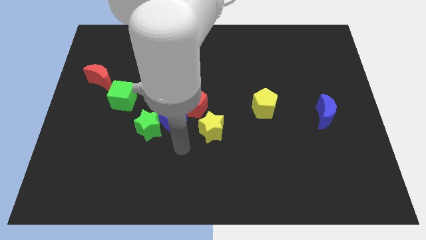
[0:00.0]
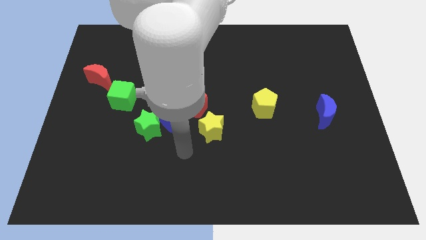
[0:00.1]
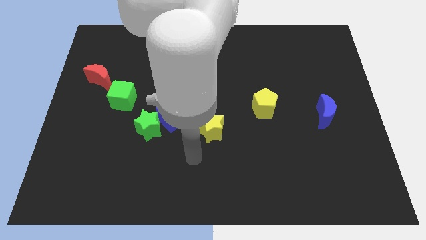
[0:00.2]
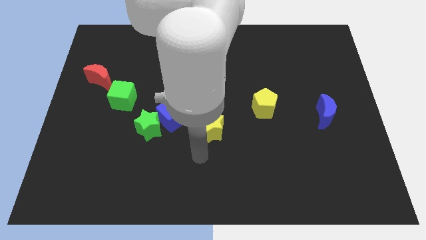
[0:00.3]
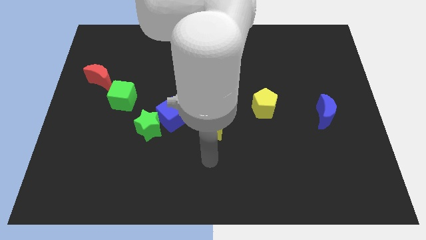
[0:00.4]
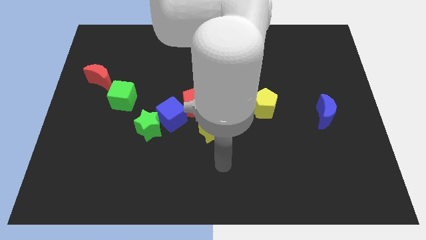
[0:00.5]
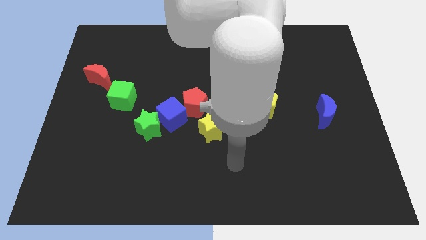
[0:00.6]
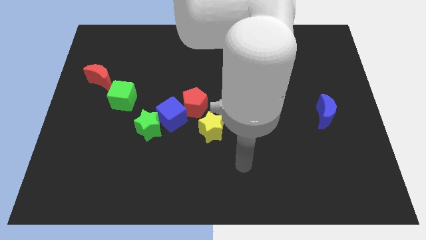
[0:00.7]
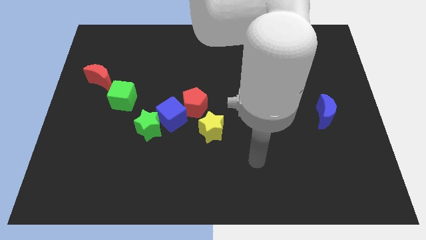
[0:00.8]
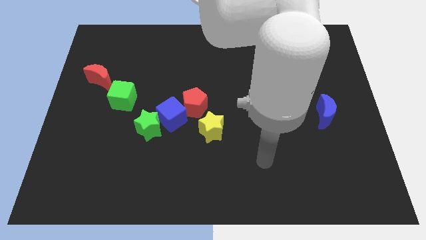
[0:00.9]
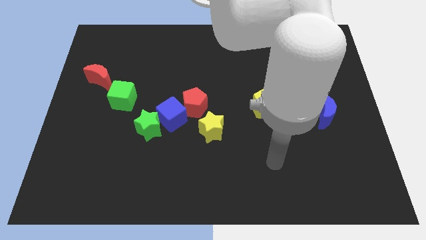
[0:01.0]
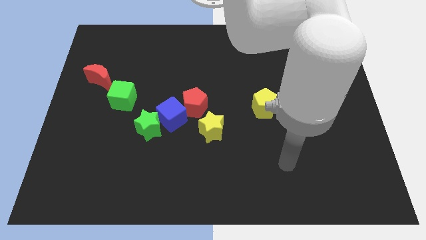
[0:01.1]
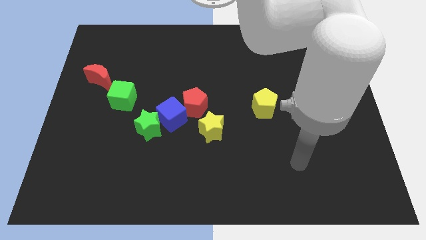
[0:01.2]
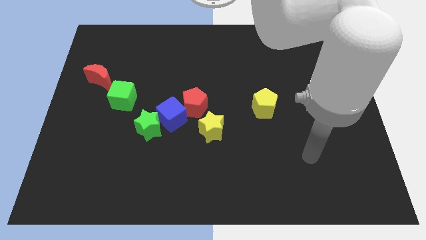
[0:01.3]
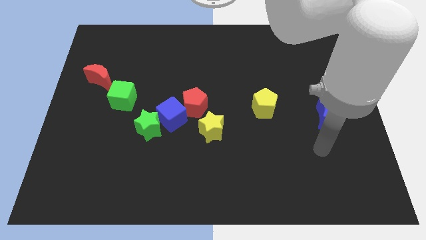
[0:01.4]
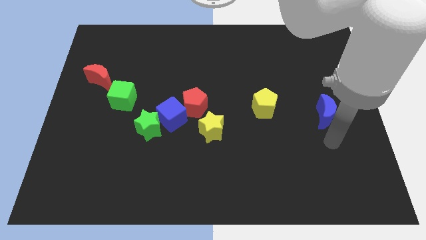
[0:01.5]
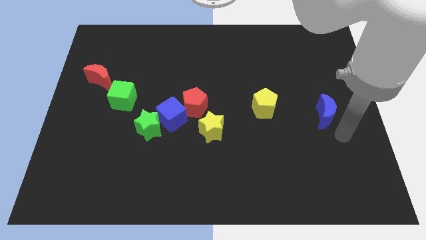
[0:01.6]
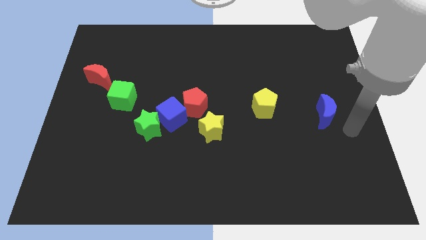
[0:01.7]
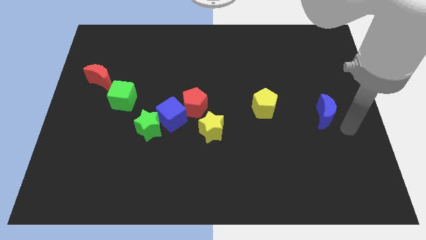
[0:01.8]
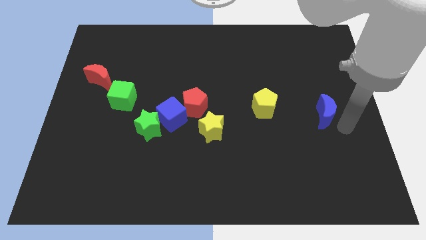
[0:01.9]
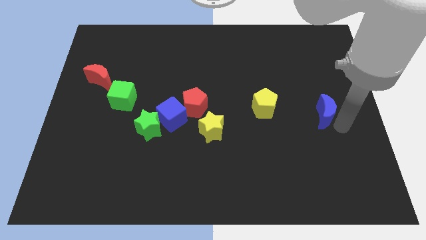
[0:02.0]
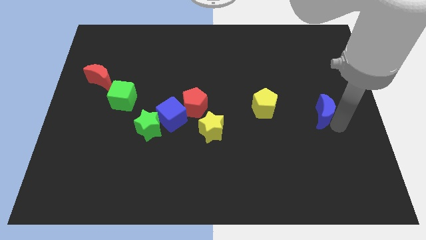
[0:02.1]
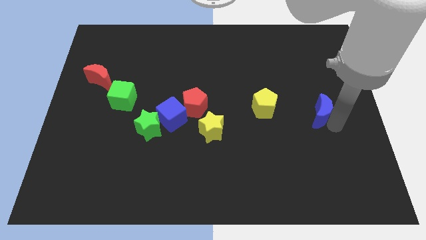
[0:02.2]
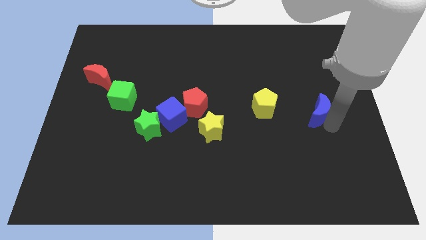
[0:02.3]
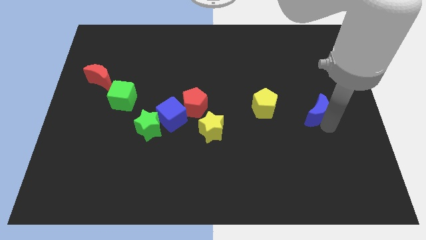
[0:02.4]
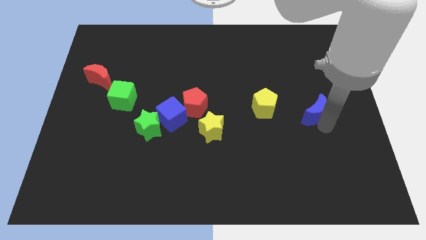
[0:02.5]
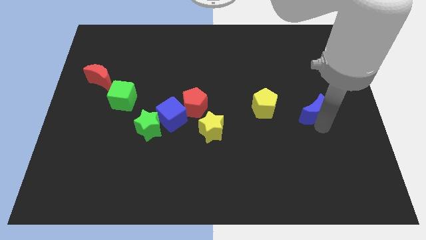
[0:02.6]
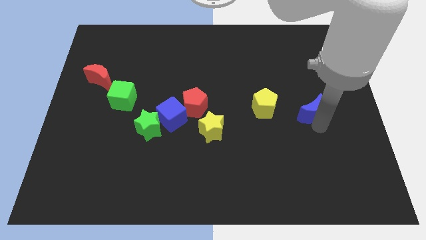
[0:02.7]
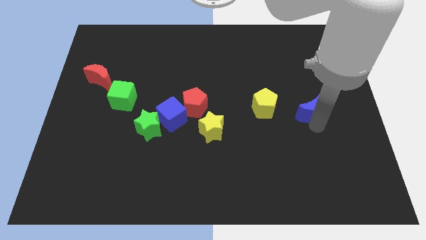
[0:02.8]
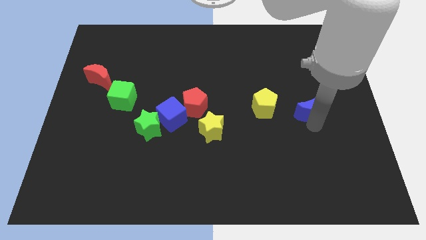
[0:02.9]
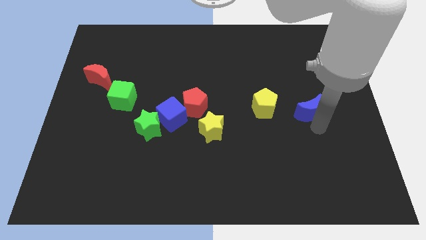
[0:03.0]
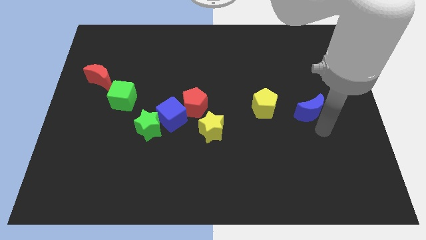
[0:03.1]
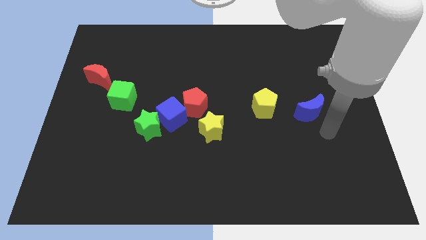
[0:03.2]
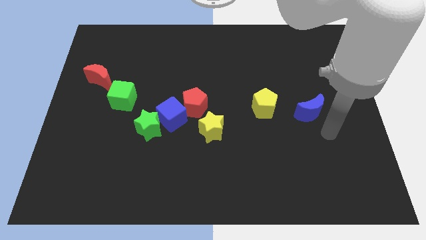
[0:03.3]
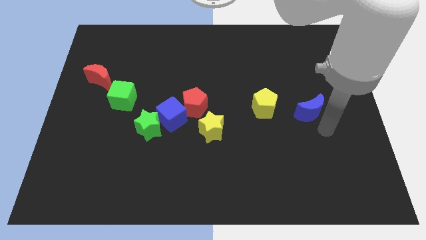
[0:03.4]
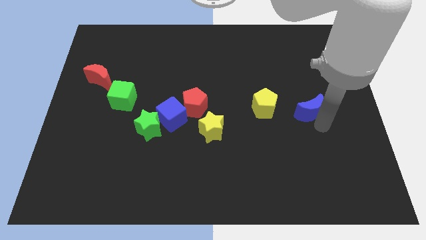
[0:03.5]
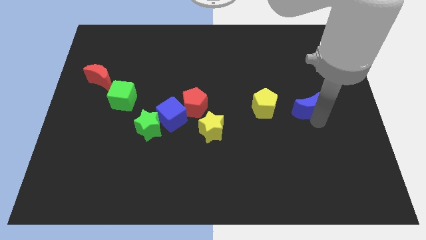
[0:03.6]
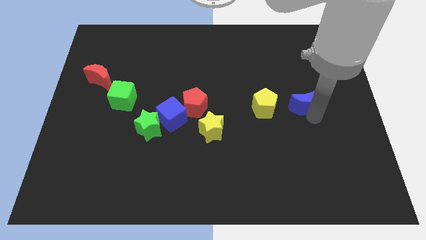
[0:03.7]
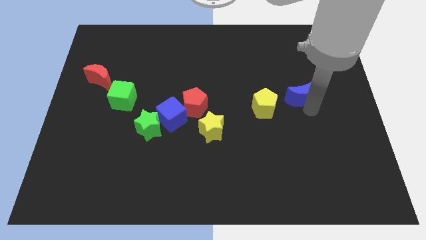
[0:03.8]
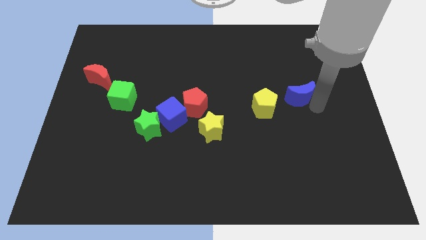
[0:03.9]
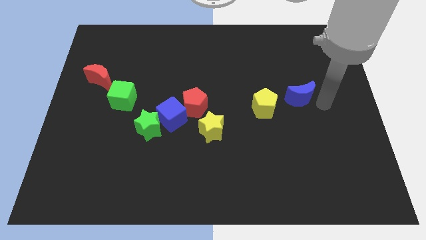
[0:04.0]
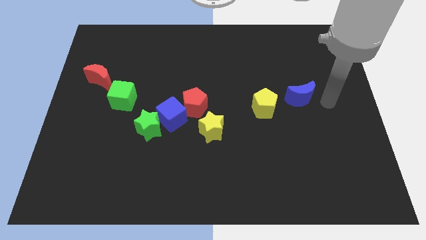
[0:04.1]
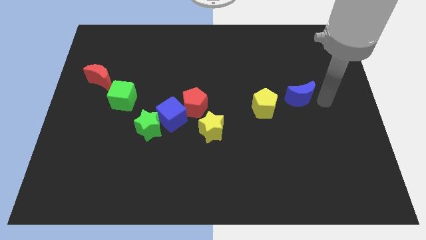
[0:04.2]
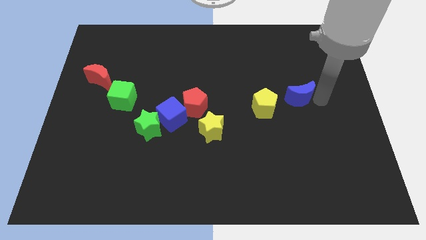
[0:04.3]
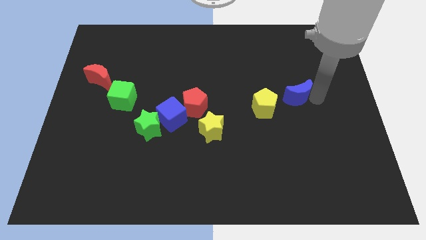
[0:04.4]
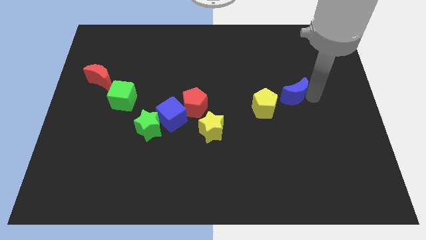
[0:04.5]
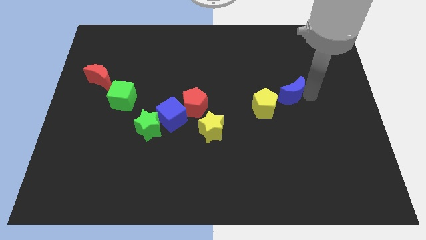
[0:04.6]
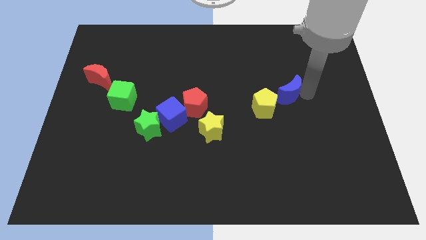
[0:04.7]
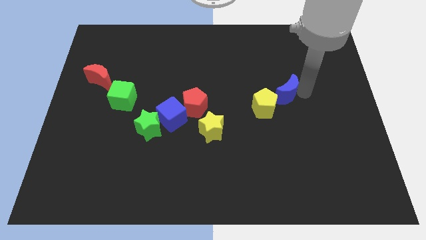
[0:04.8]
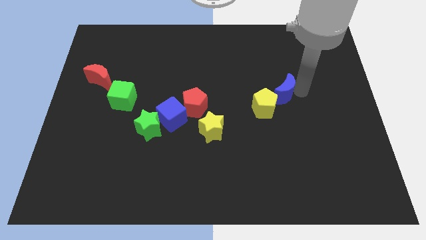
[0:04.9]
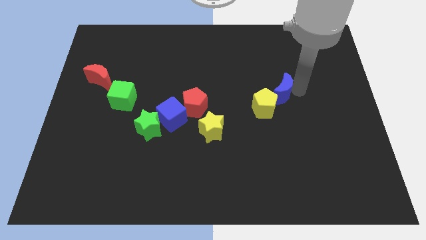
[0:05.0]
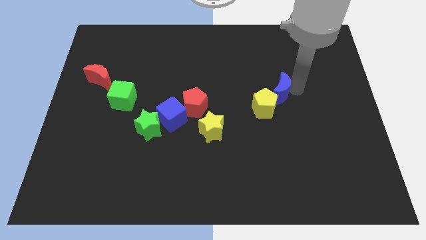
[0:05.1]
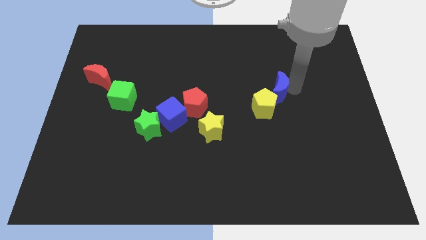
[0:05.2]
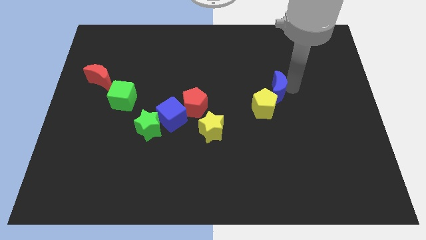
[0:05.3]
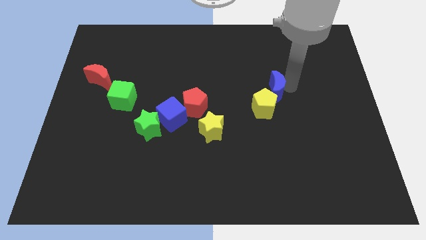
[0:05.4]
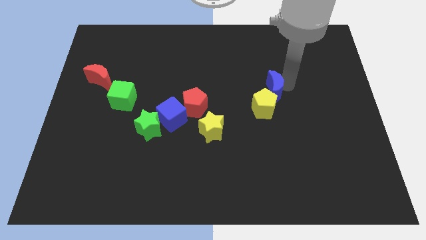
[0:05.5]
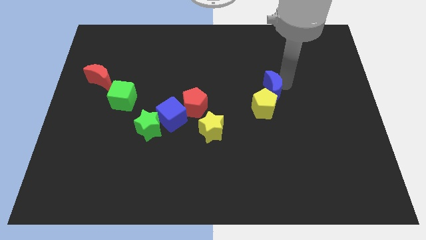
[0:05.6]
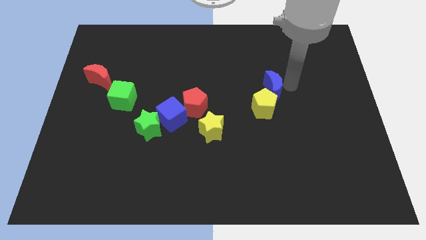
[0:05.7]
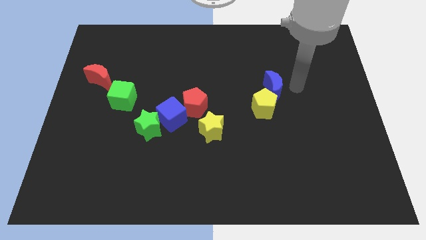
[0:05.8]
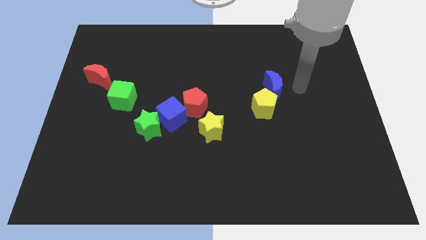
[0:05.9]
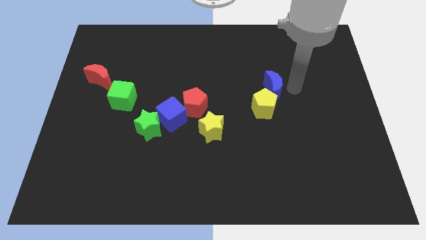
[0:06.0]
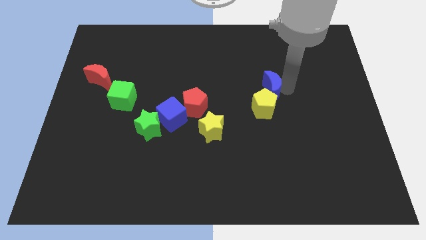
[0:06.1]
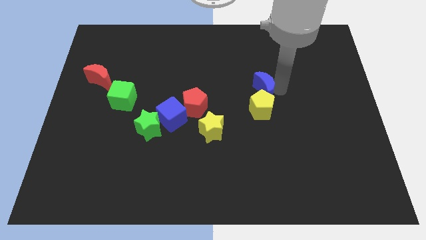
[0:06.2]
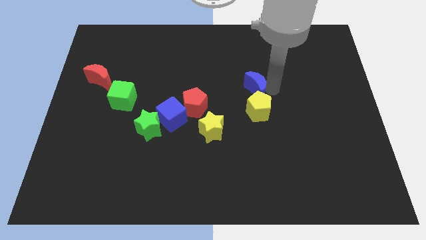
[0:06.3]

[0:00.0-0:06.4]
move the blue moon to the middle

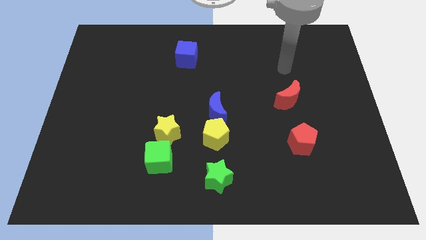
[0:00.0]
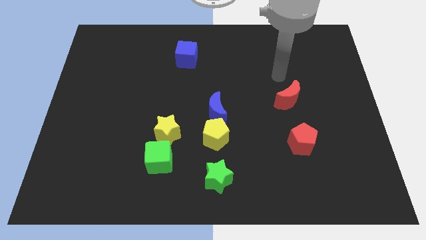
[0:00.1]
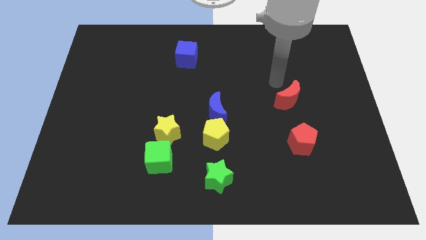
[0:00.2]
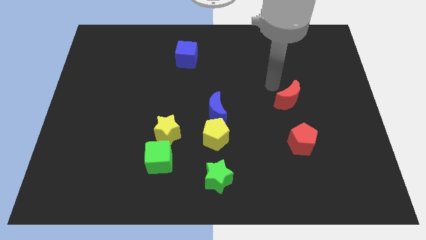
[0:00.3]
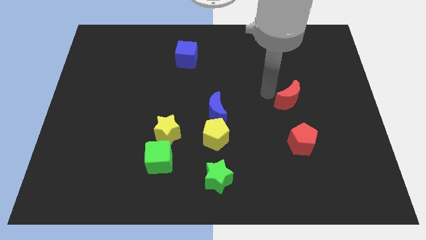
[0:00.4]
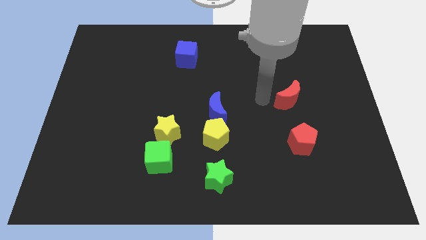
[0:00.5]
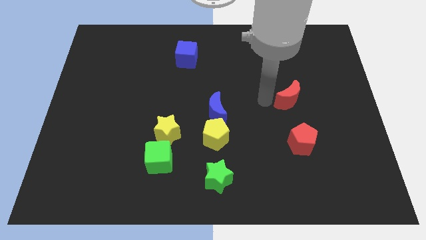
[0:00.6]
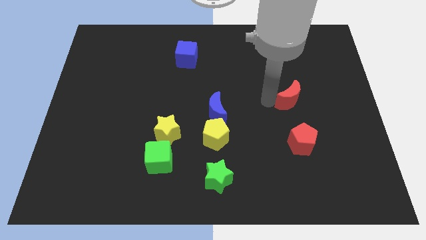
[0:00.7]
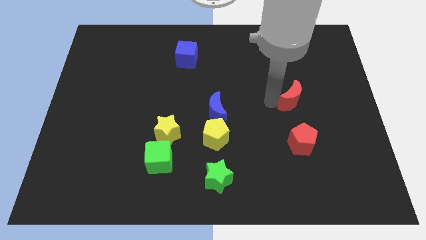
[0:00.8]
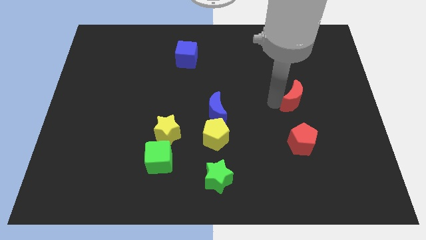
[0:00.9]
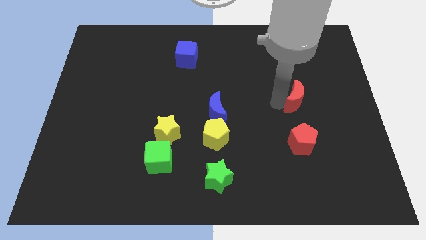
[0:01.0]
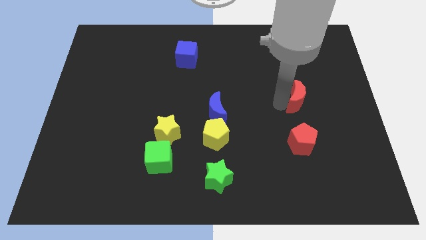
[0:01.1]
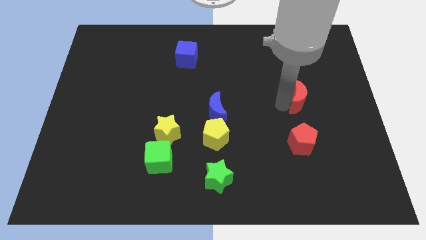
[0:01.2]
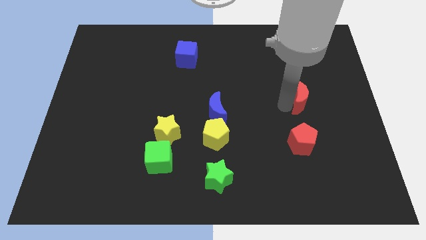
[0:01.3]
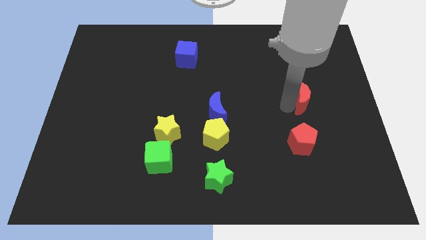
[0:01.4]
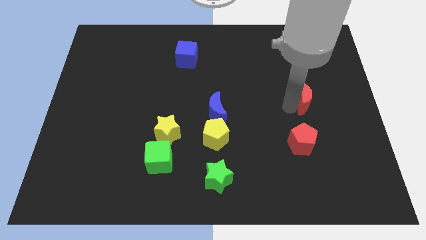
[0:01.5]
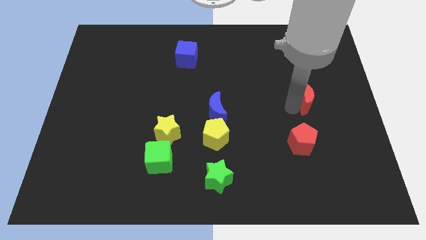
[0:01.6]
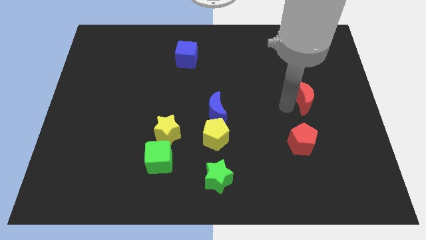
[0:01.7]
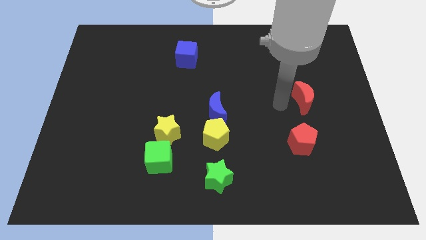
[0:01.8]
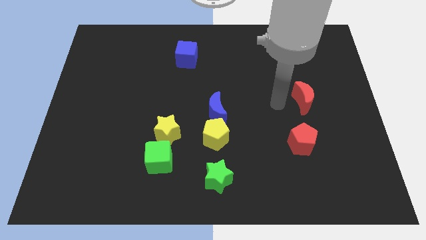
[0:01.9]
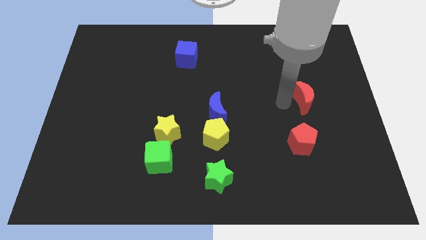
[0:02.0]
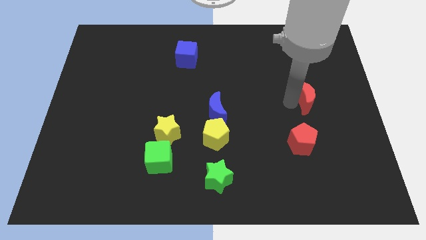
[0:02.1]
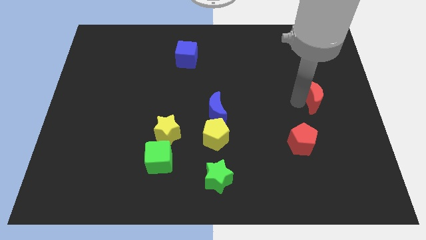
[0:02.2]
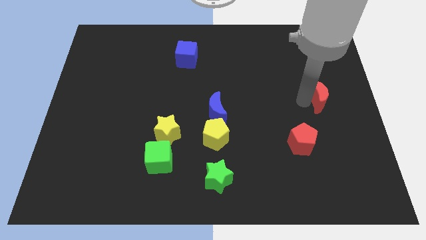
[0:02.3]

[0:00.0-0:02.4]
put the red moon to the center right
